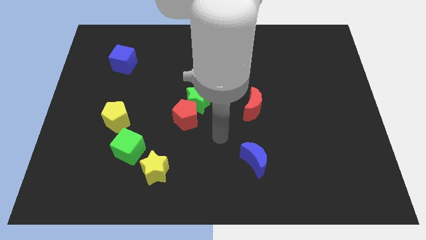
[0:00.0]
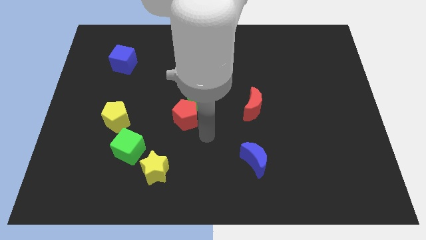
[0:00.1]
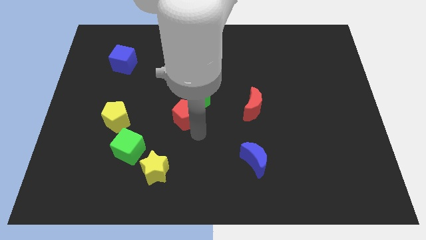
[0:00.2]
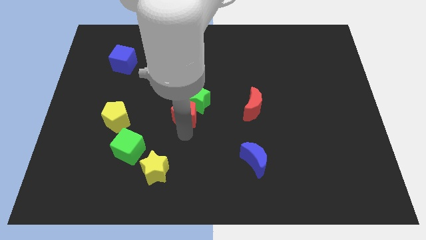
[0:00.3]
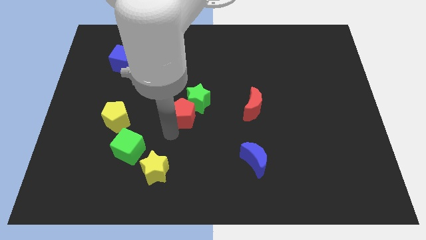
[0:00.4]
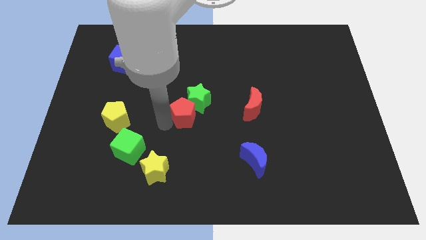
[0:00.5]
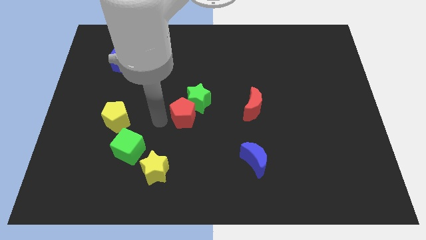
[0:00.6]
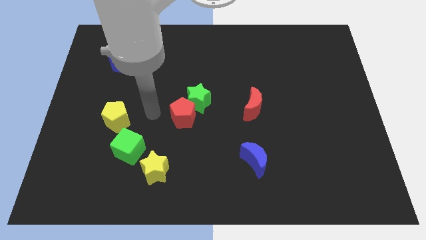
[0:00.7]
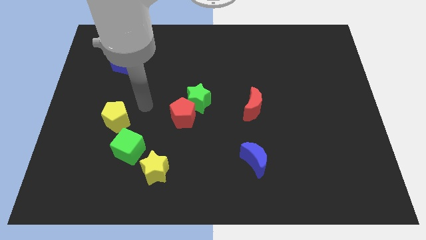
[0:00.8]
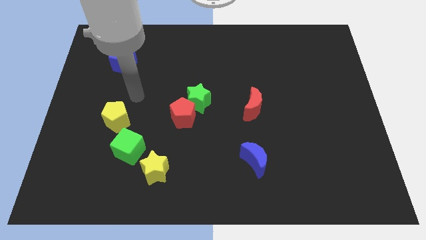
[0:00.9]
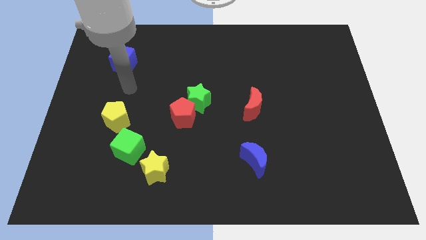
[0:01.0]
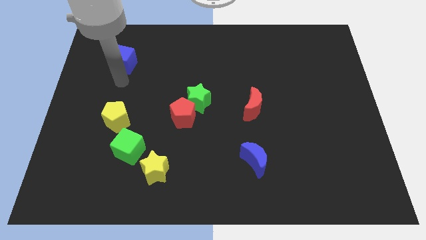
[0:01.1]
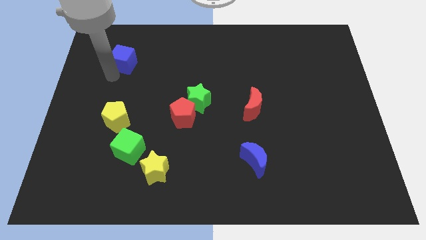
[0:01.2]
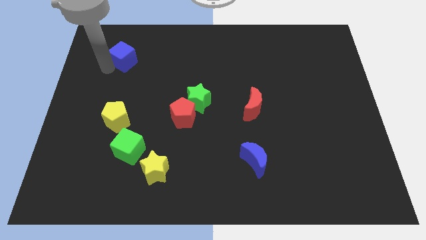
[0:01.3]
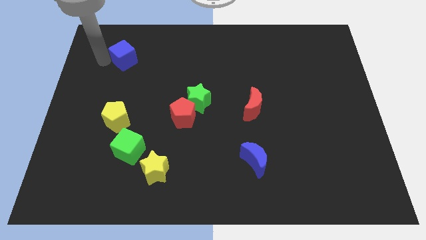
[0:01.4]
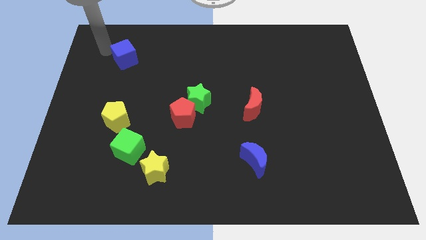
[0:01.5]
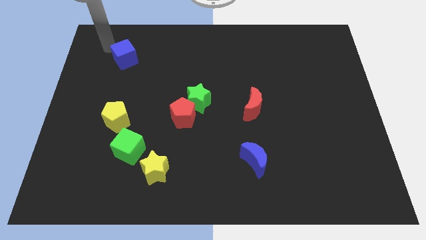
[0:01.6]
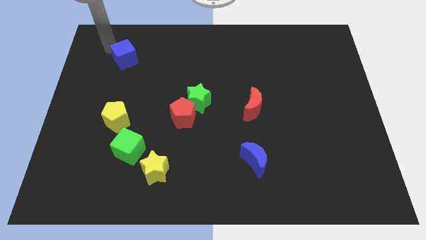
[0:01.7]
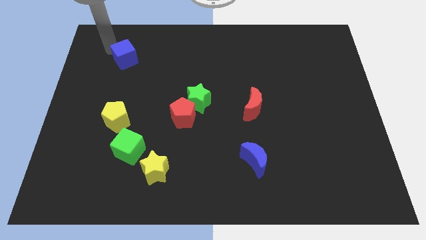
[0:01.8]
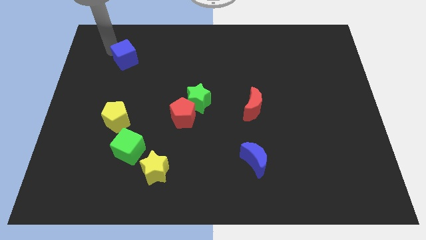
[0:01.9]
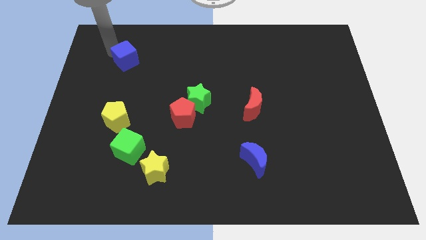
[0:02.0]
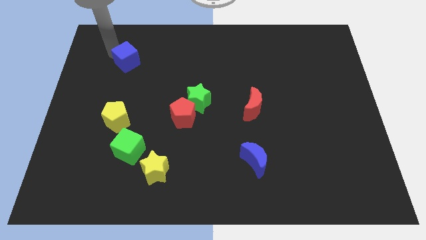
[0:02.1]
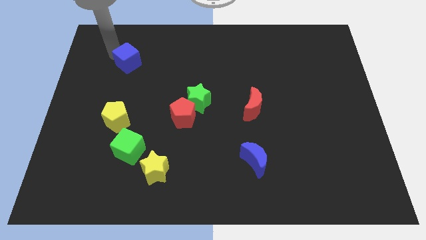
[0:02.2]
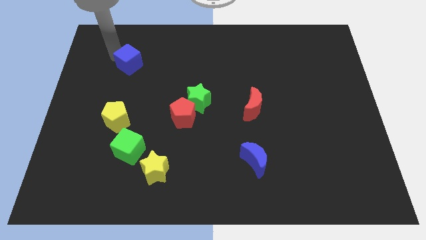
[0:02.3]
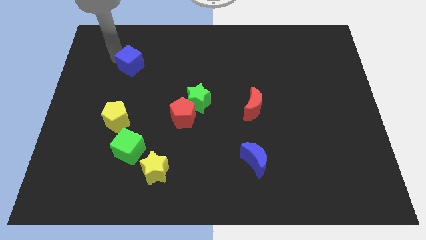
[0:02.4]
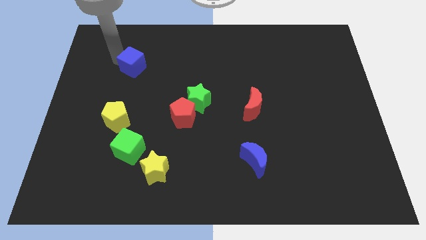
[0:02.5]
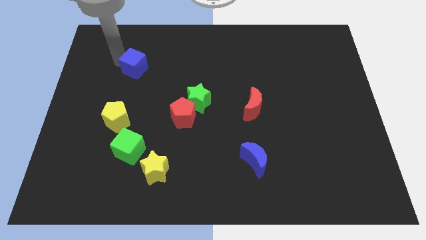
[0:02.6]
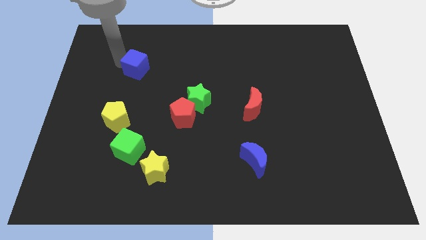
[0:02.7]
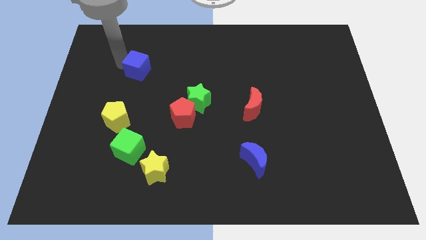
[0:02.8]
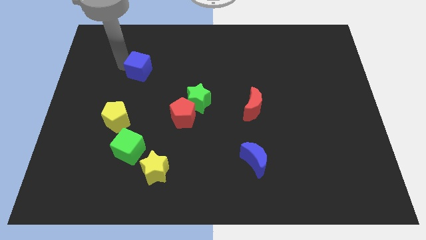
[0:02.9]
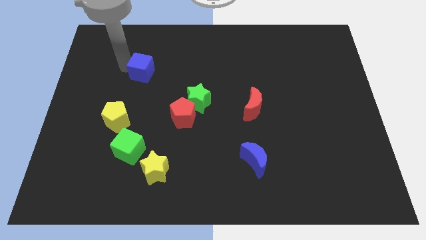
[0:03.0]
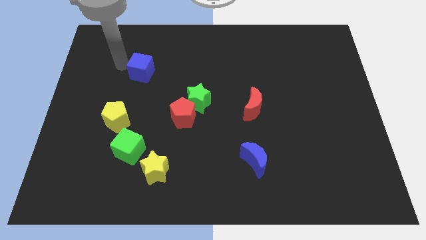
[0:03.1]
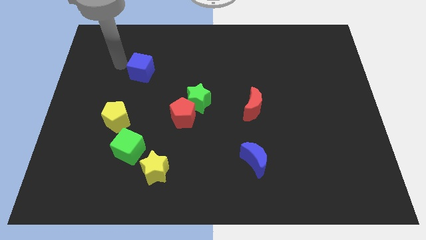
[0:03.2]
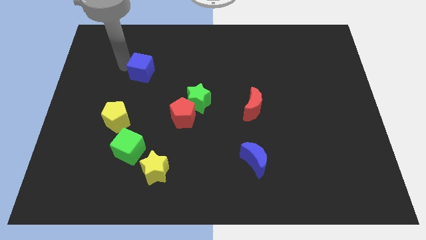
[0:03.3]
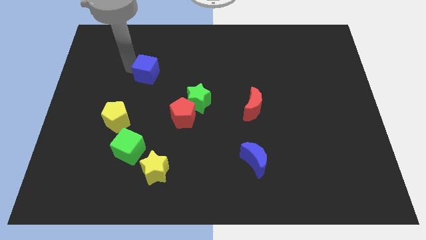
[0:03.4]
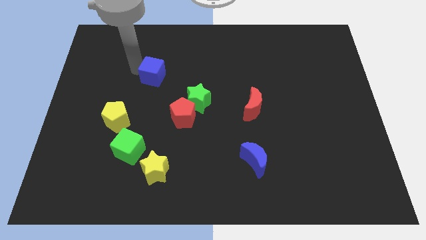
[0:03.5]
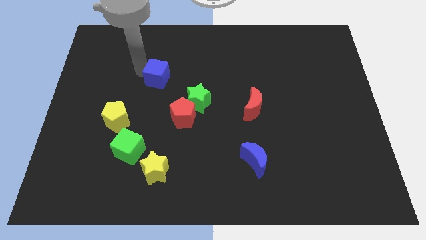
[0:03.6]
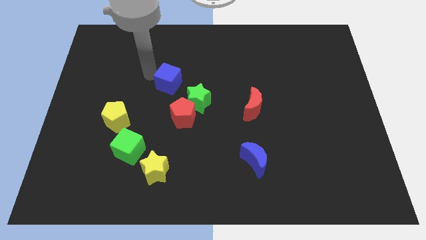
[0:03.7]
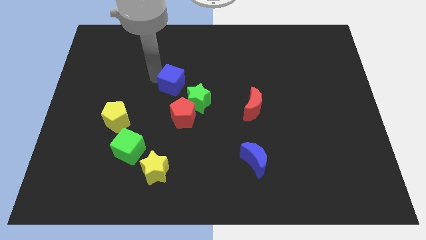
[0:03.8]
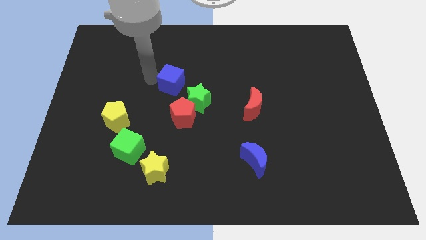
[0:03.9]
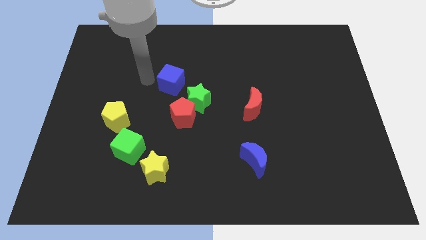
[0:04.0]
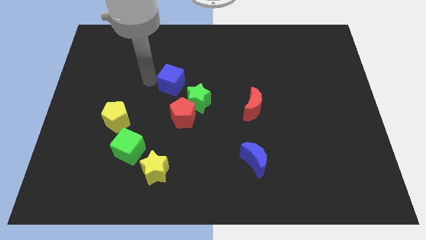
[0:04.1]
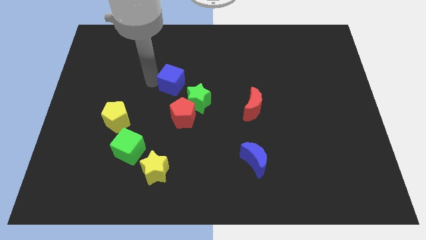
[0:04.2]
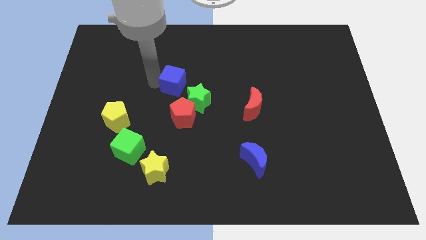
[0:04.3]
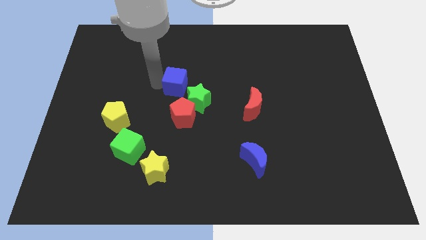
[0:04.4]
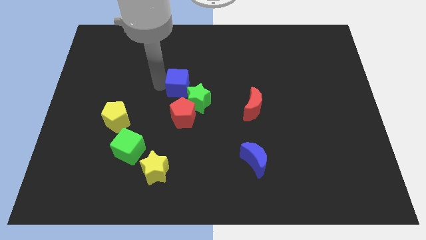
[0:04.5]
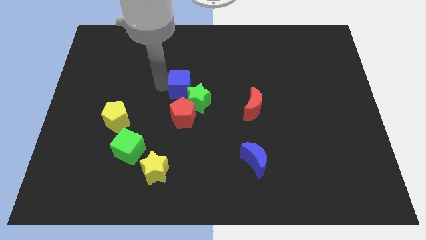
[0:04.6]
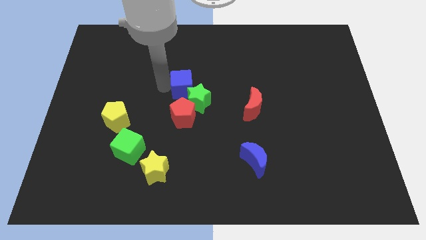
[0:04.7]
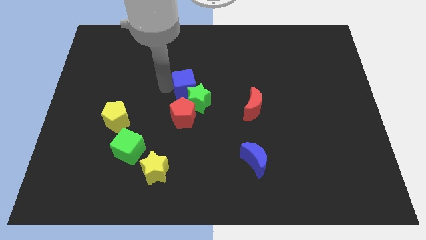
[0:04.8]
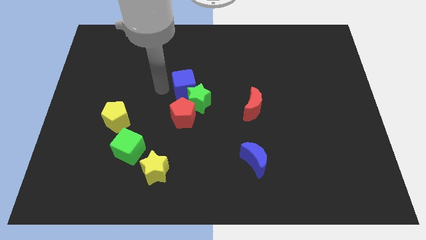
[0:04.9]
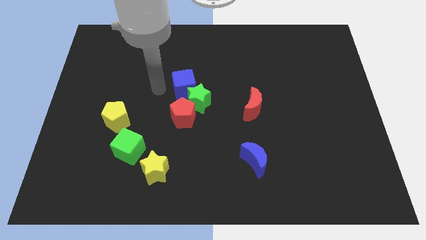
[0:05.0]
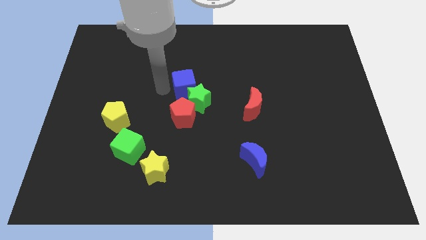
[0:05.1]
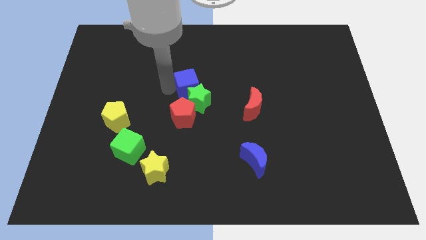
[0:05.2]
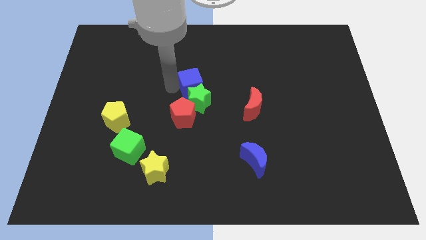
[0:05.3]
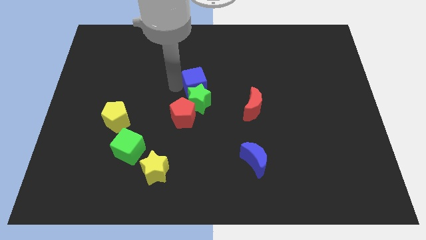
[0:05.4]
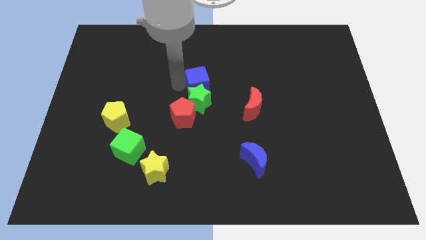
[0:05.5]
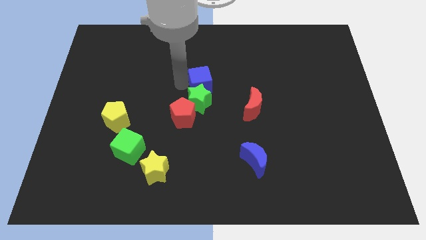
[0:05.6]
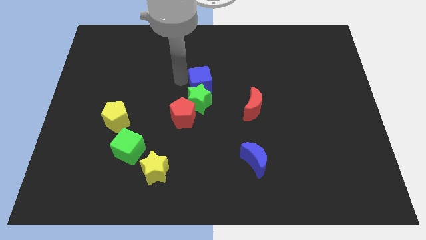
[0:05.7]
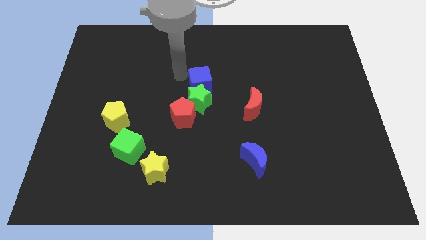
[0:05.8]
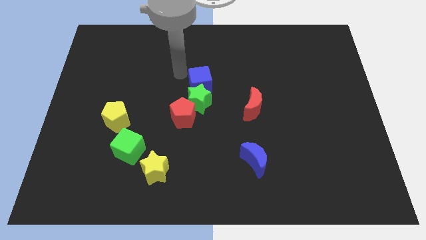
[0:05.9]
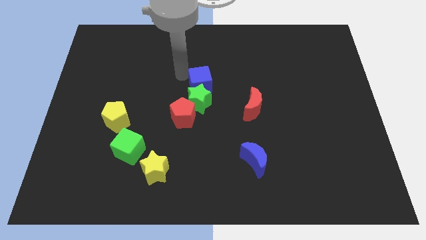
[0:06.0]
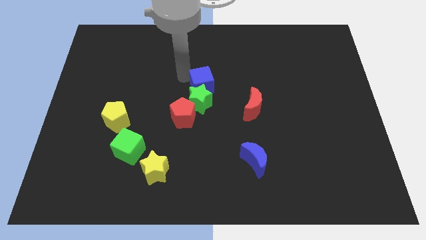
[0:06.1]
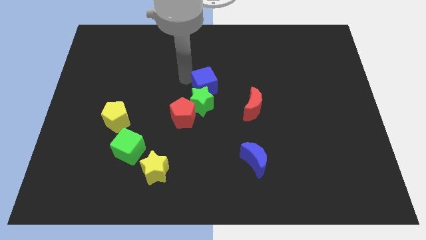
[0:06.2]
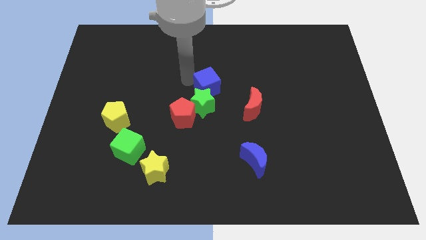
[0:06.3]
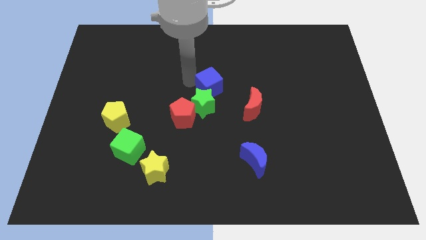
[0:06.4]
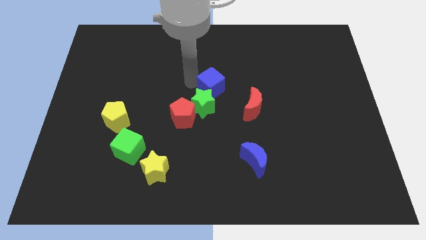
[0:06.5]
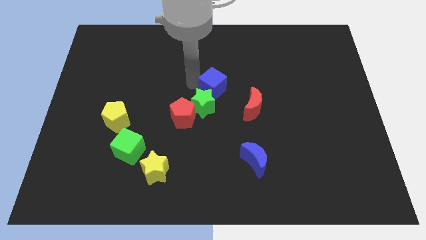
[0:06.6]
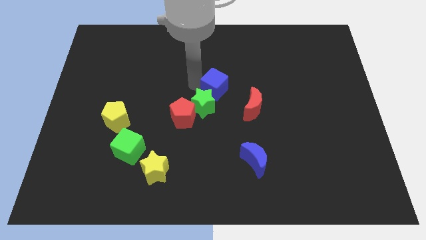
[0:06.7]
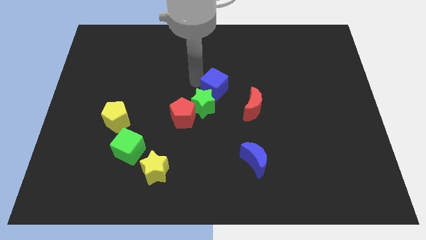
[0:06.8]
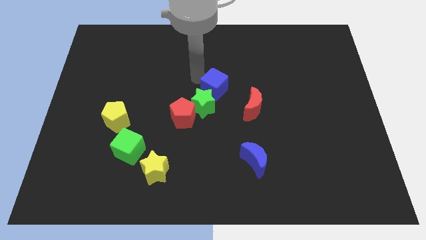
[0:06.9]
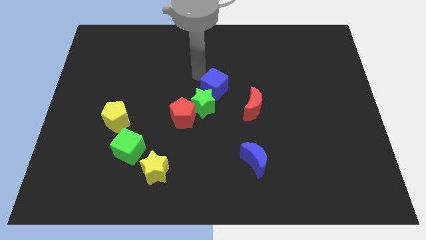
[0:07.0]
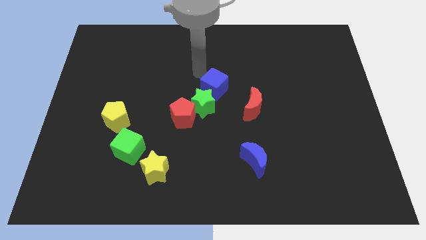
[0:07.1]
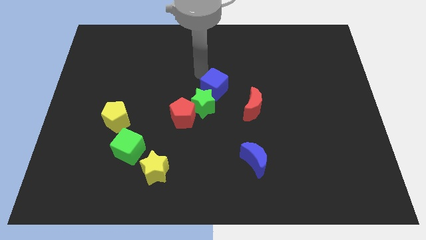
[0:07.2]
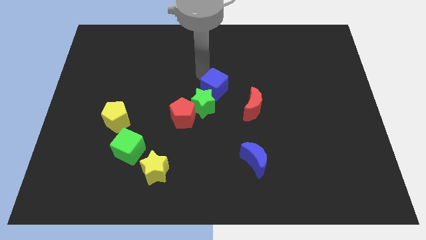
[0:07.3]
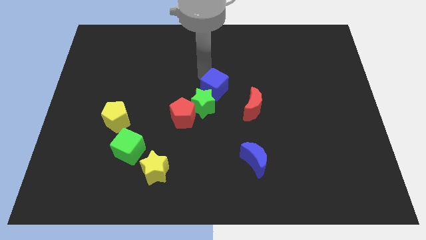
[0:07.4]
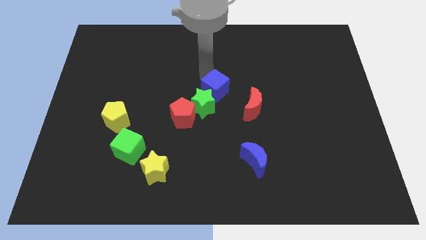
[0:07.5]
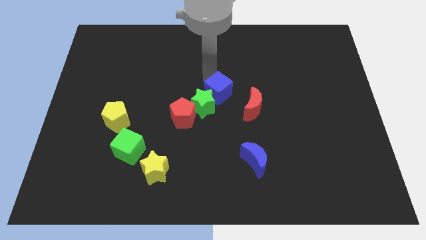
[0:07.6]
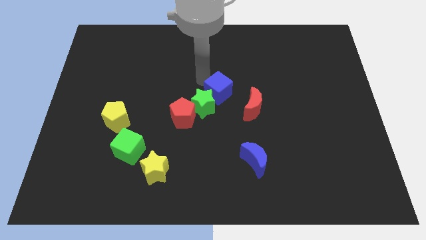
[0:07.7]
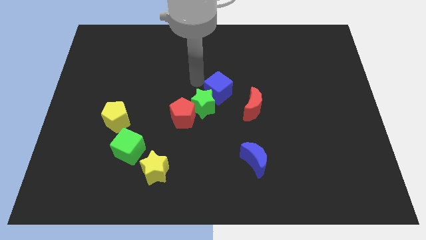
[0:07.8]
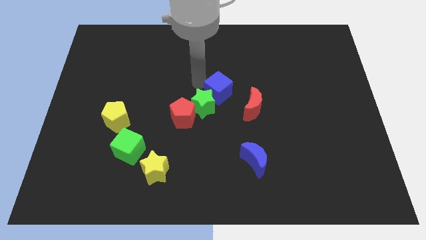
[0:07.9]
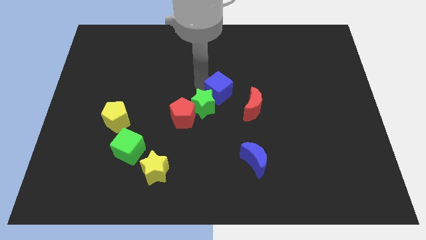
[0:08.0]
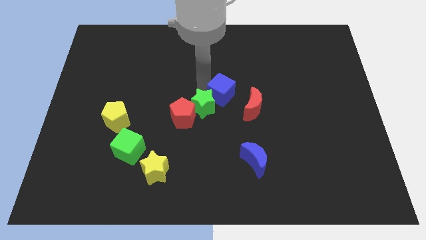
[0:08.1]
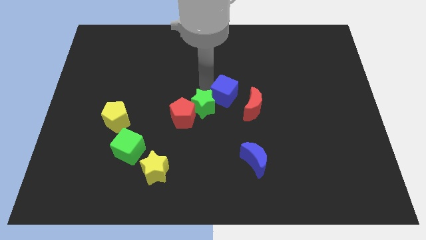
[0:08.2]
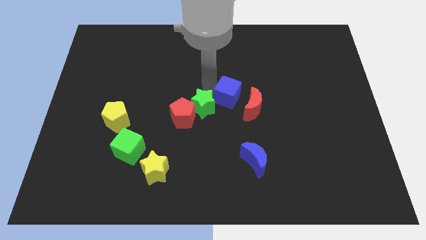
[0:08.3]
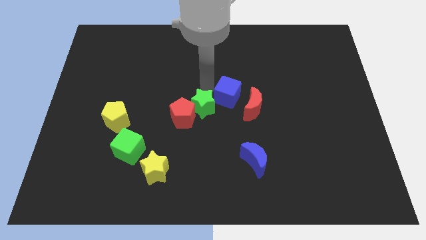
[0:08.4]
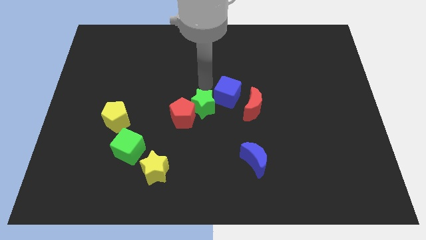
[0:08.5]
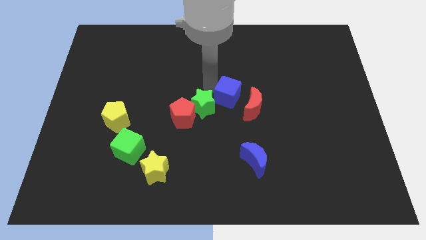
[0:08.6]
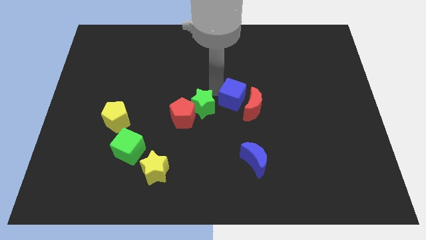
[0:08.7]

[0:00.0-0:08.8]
put the blue cube next to the red moon
